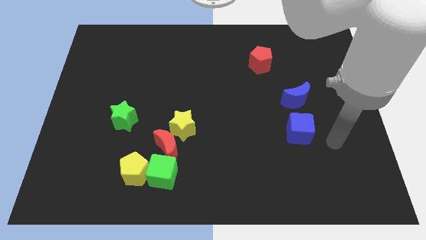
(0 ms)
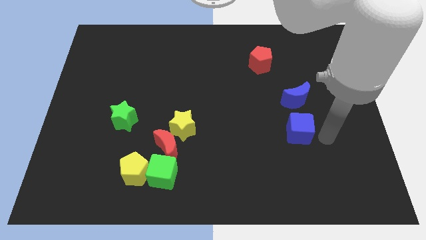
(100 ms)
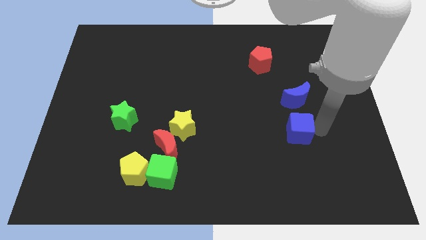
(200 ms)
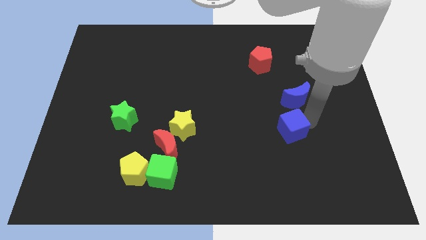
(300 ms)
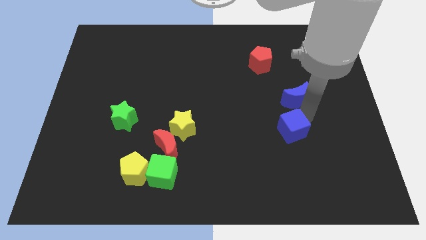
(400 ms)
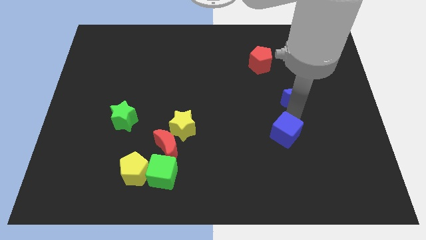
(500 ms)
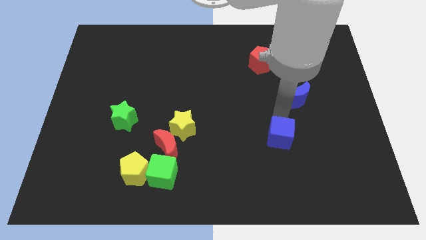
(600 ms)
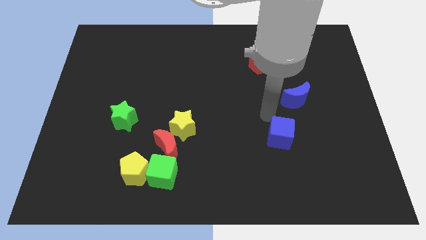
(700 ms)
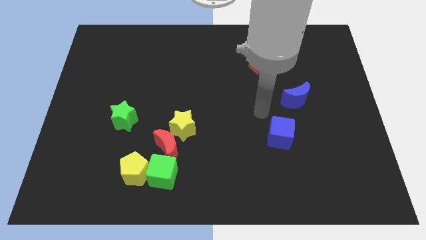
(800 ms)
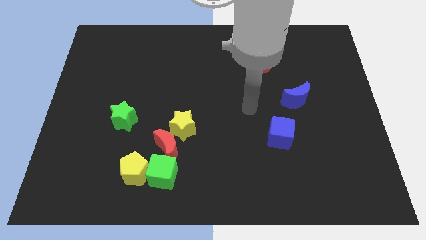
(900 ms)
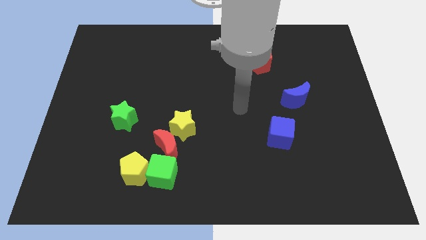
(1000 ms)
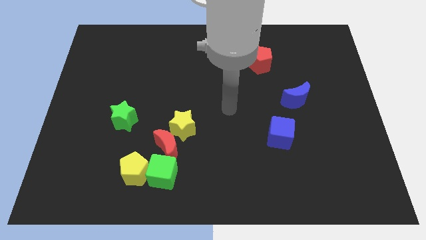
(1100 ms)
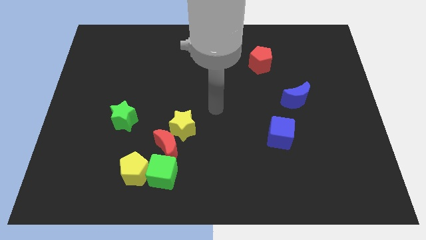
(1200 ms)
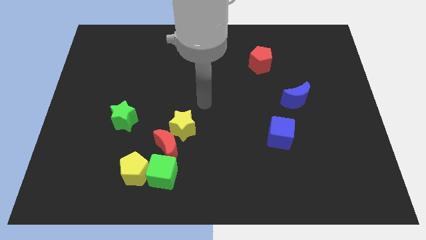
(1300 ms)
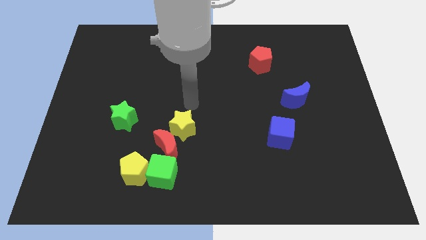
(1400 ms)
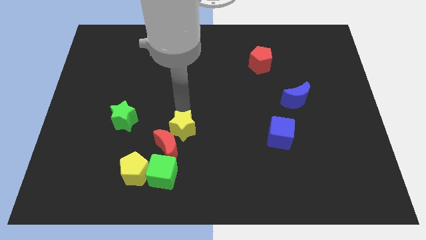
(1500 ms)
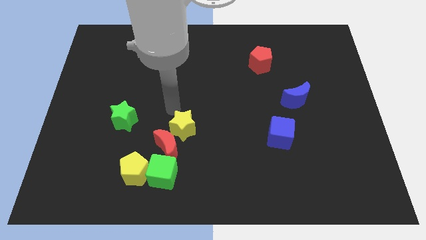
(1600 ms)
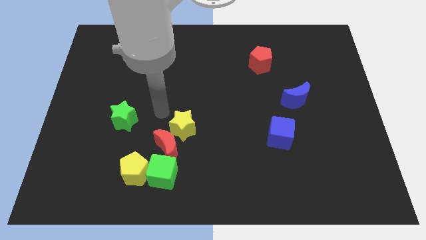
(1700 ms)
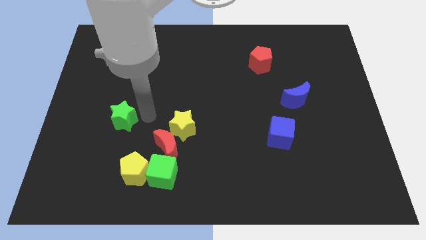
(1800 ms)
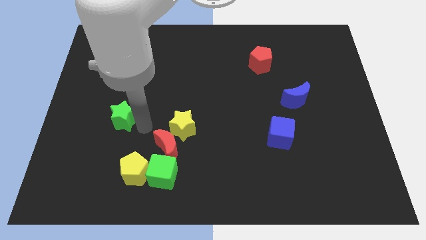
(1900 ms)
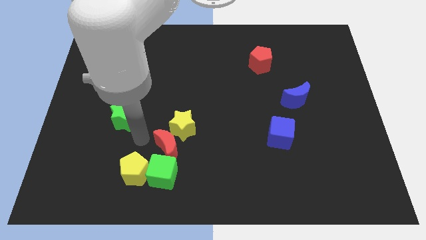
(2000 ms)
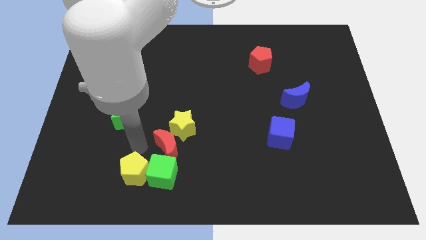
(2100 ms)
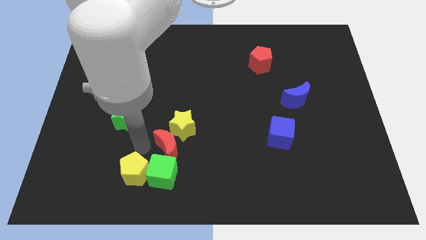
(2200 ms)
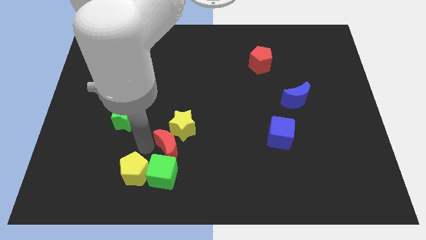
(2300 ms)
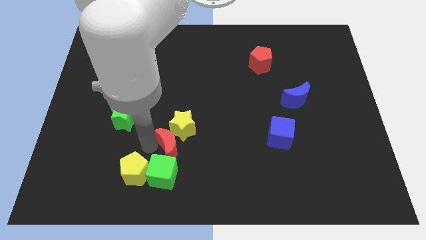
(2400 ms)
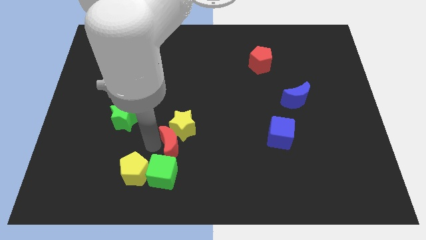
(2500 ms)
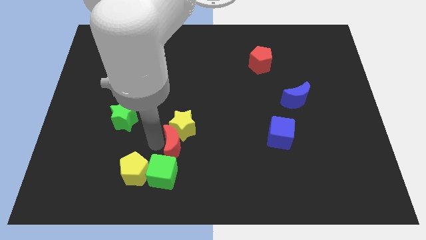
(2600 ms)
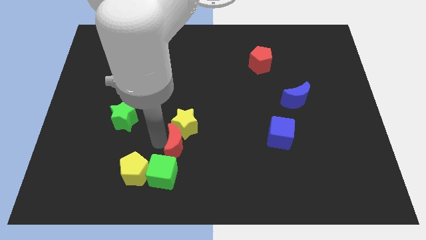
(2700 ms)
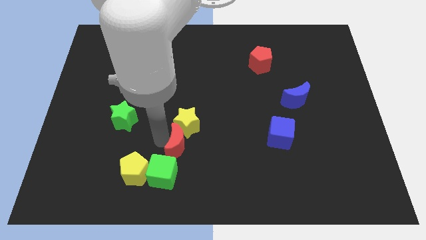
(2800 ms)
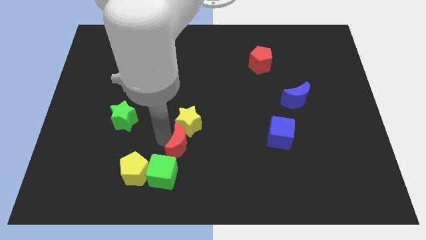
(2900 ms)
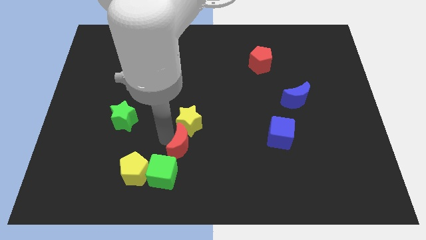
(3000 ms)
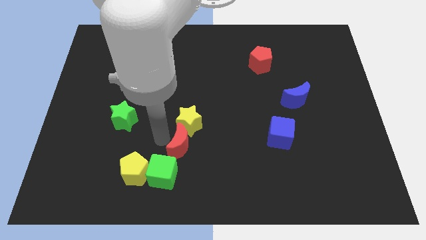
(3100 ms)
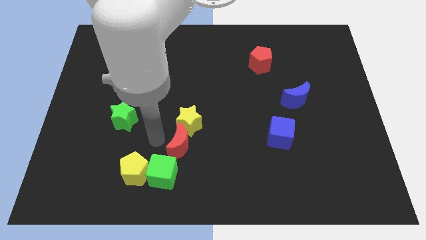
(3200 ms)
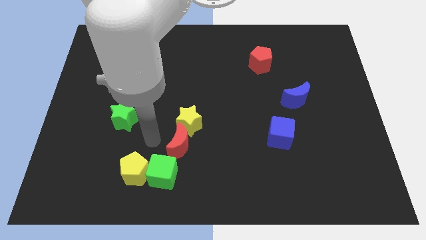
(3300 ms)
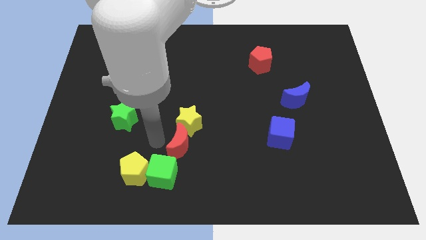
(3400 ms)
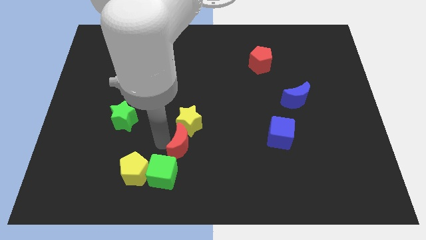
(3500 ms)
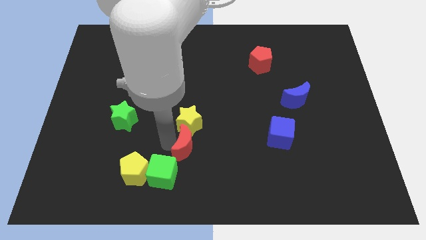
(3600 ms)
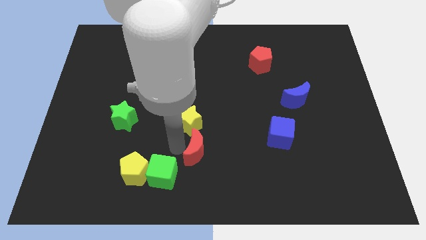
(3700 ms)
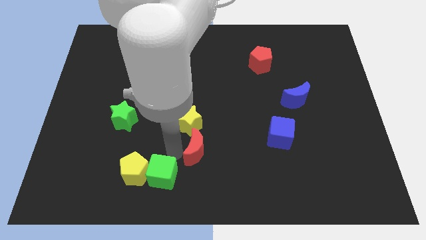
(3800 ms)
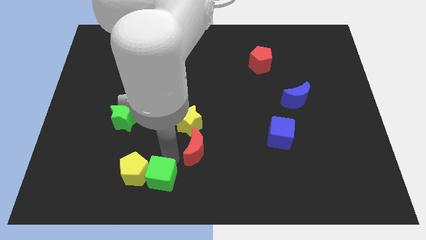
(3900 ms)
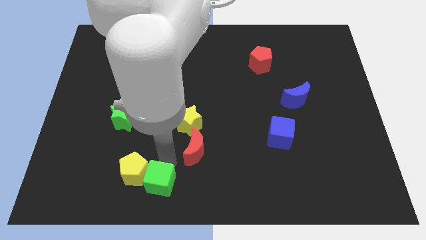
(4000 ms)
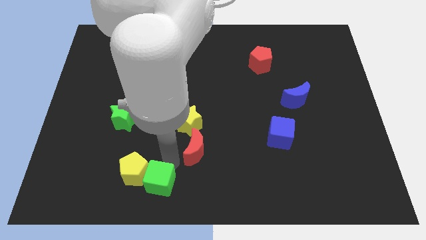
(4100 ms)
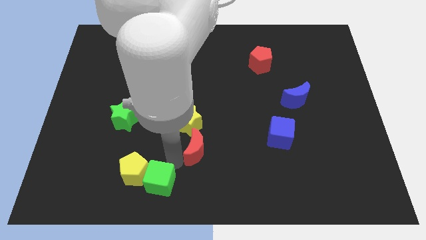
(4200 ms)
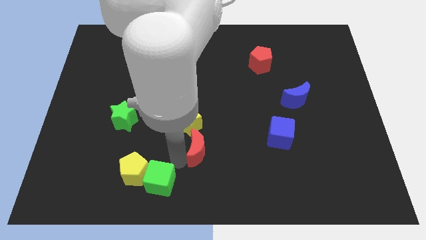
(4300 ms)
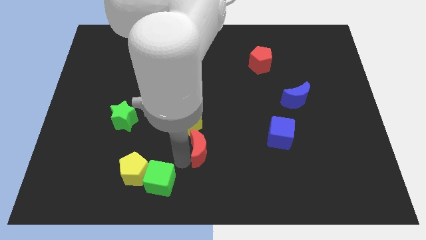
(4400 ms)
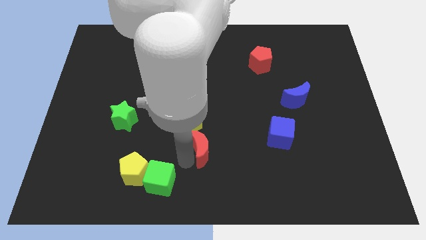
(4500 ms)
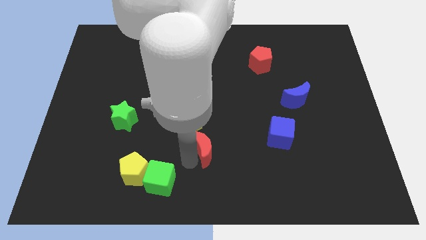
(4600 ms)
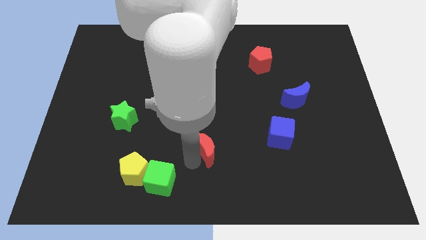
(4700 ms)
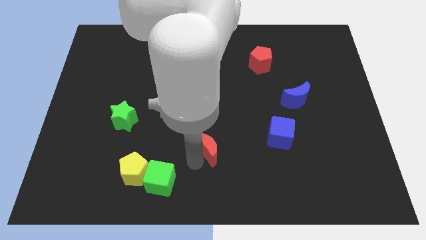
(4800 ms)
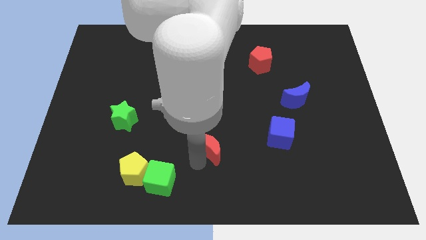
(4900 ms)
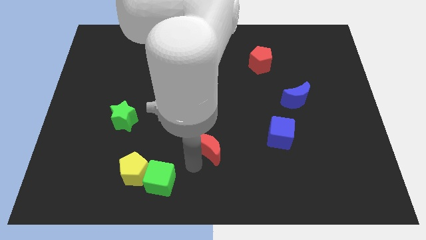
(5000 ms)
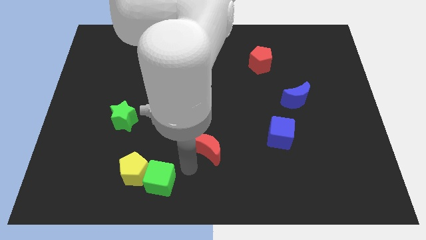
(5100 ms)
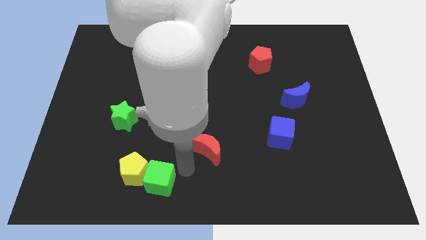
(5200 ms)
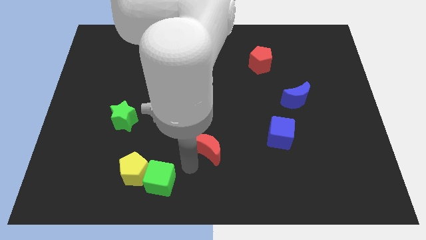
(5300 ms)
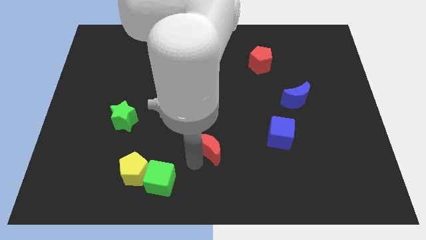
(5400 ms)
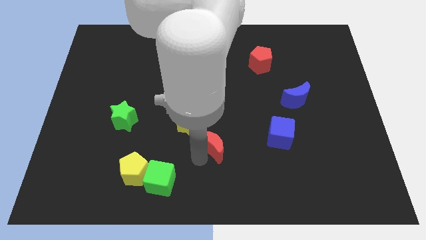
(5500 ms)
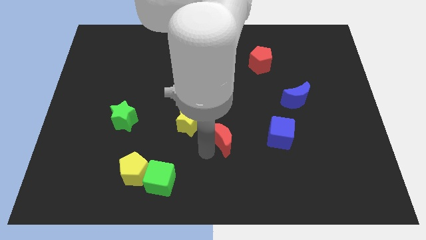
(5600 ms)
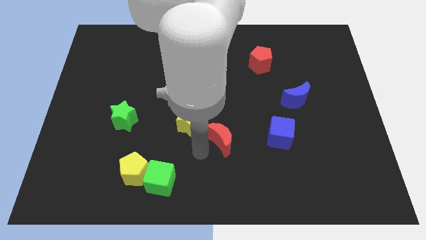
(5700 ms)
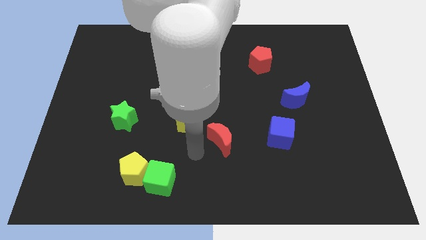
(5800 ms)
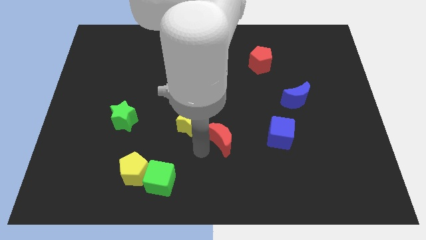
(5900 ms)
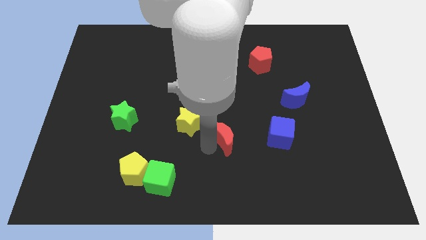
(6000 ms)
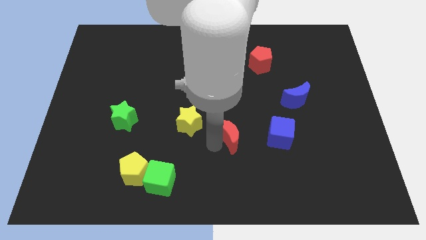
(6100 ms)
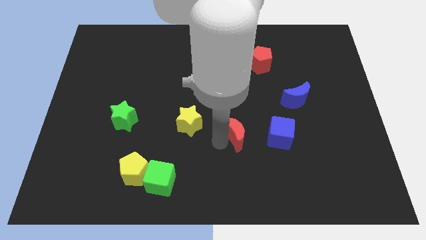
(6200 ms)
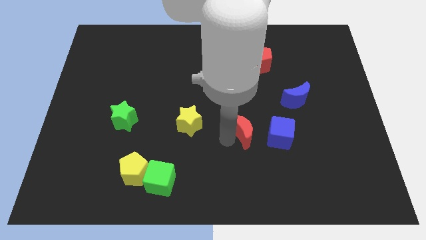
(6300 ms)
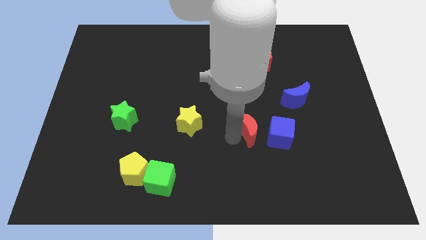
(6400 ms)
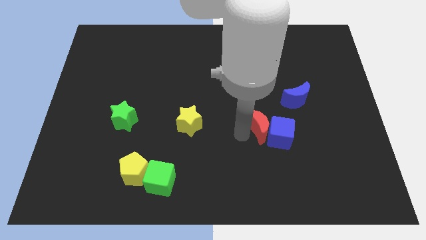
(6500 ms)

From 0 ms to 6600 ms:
slide the red moon diagonally down and to the left of the blue moon
